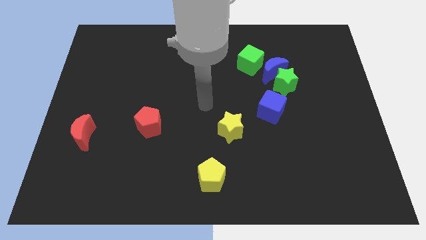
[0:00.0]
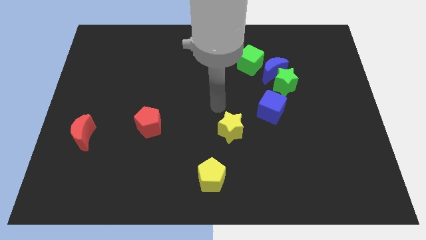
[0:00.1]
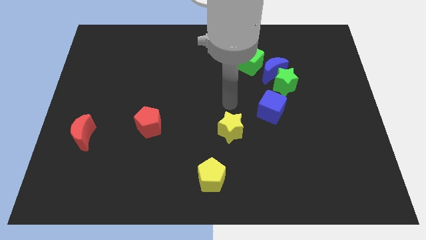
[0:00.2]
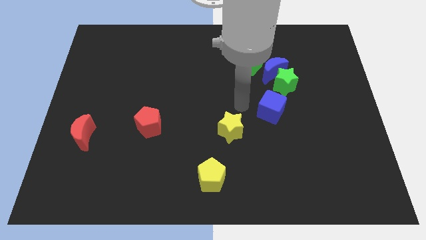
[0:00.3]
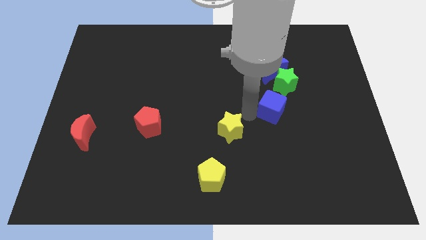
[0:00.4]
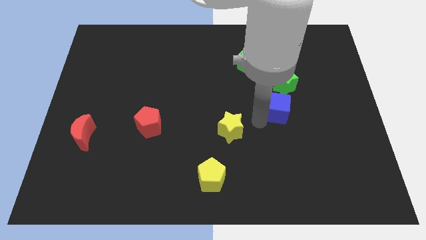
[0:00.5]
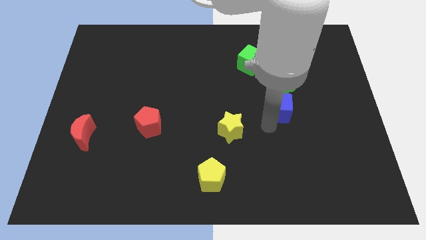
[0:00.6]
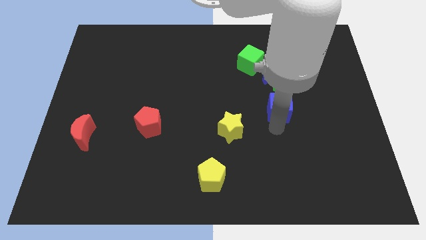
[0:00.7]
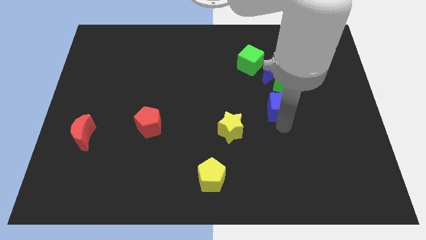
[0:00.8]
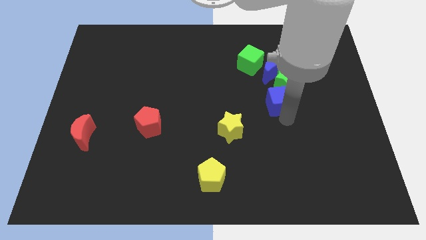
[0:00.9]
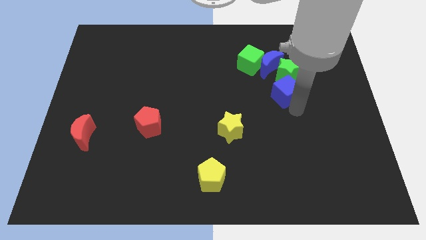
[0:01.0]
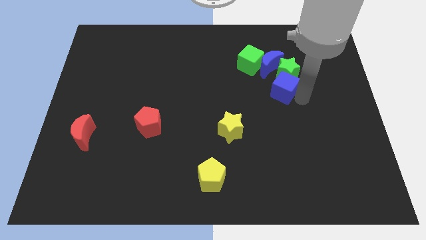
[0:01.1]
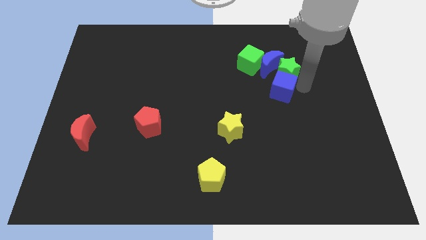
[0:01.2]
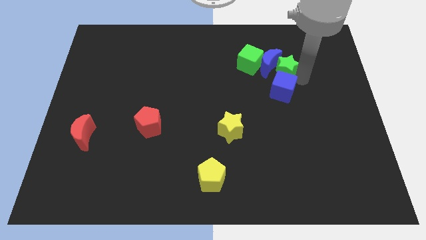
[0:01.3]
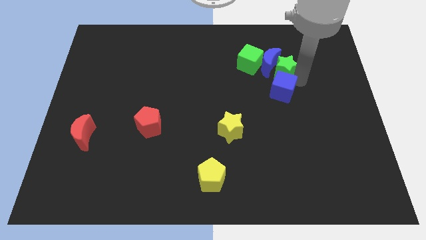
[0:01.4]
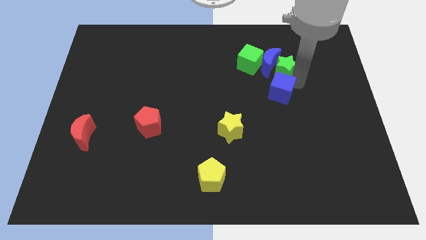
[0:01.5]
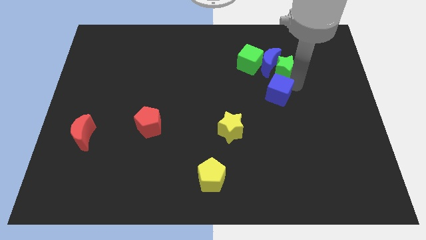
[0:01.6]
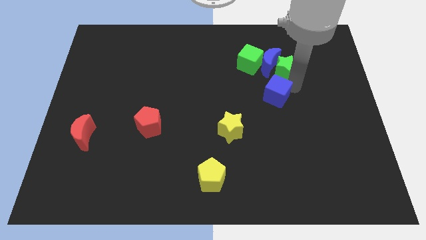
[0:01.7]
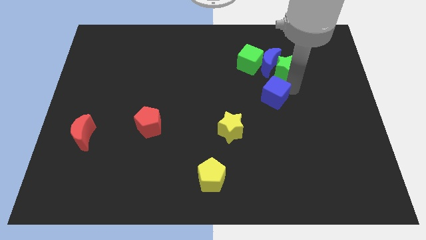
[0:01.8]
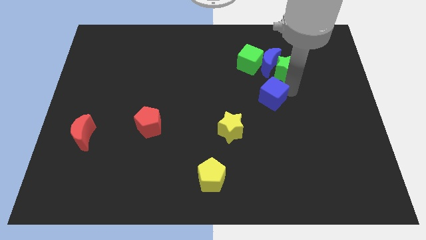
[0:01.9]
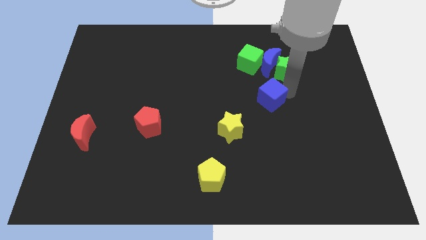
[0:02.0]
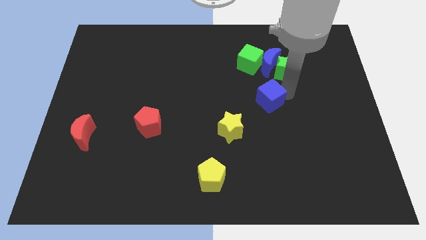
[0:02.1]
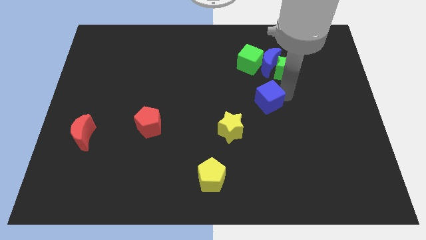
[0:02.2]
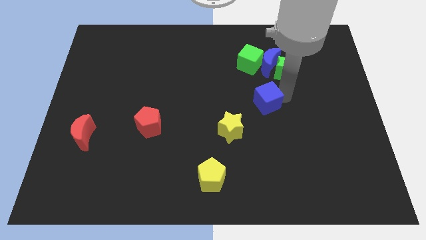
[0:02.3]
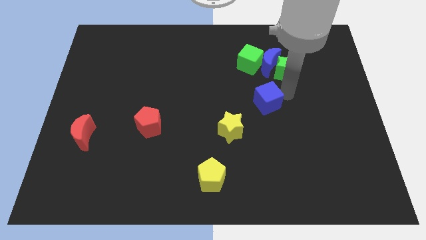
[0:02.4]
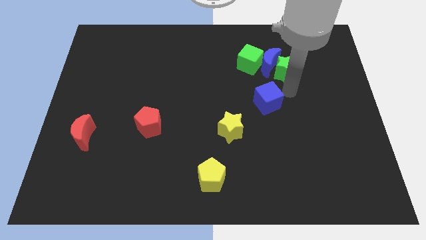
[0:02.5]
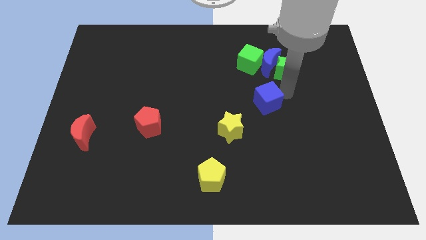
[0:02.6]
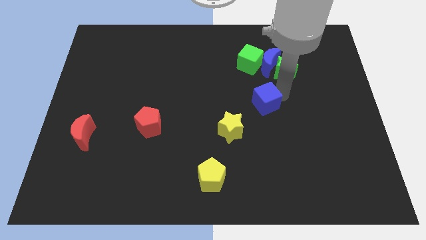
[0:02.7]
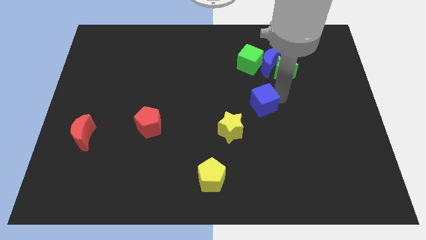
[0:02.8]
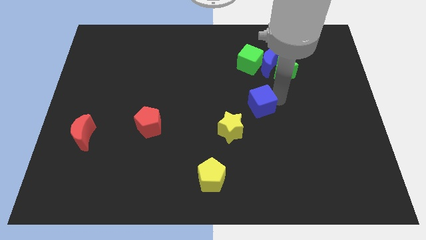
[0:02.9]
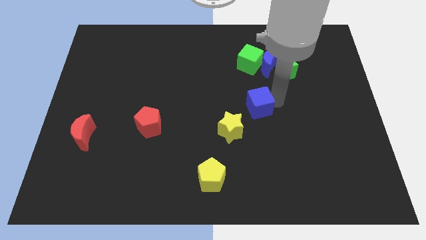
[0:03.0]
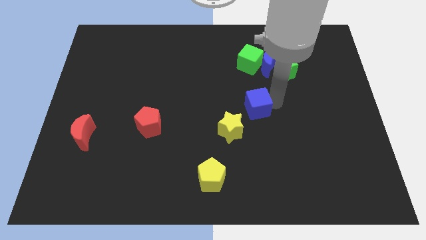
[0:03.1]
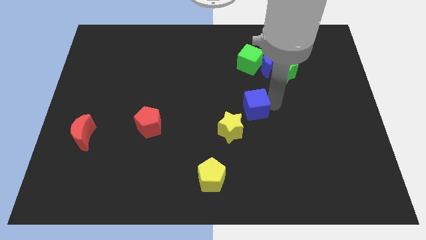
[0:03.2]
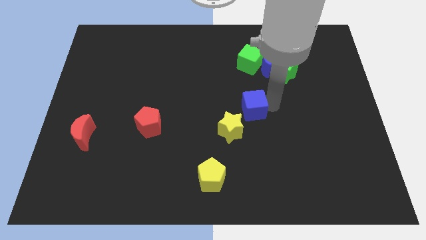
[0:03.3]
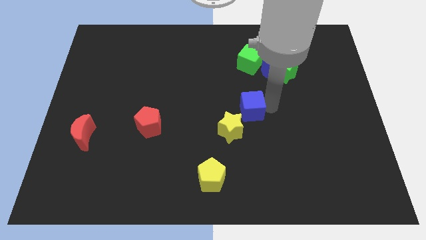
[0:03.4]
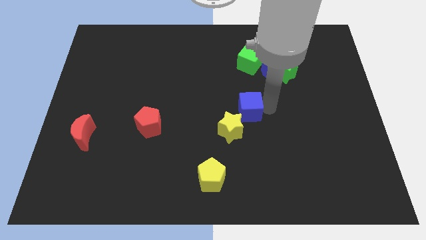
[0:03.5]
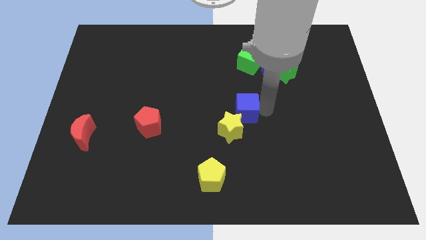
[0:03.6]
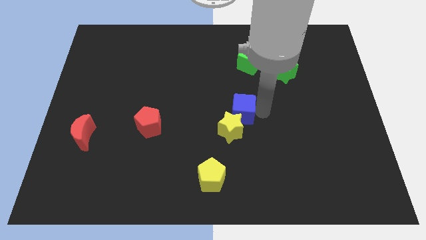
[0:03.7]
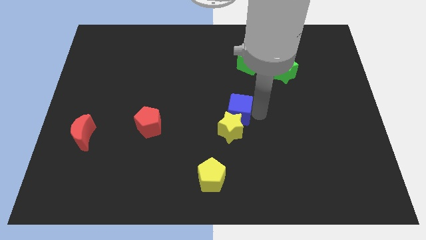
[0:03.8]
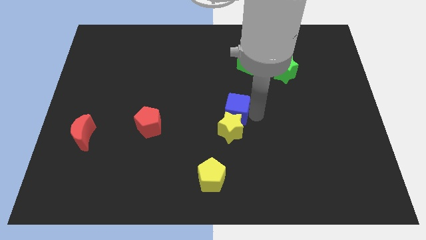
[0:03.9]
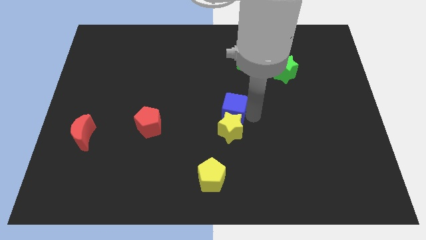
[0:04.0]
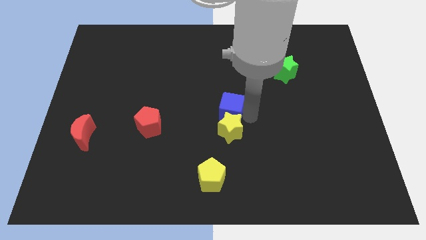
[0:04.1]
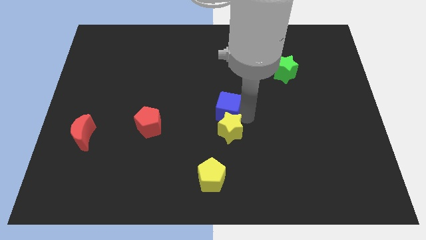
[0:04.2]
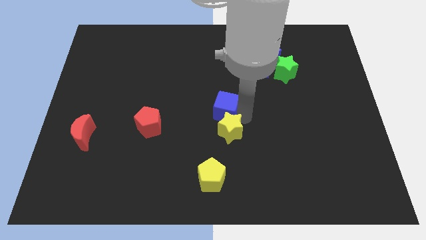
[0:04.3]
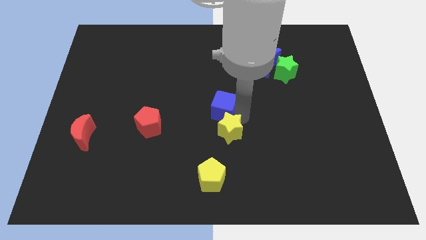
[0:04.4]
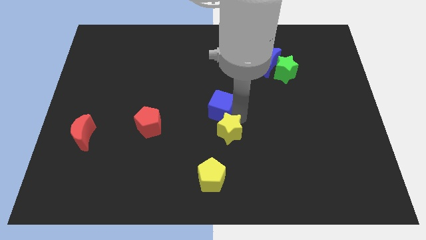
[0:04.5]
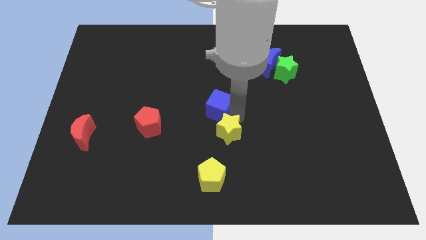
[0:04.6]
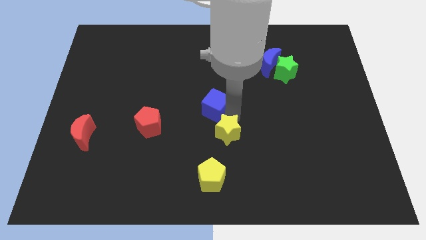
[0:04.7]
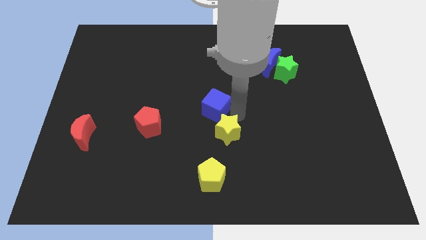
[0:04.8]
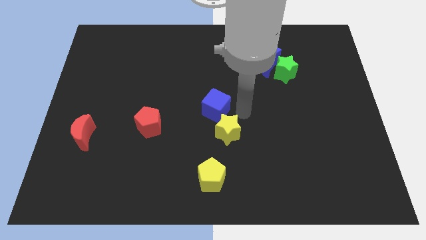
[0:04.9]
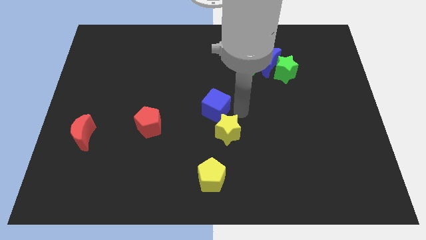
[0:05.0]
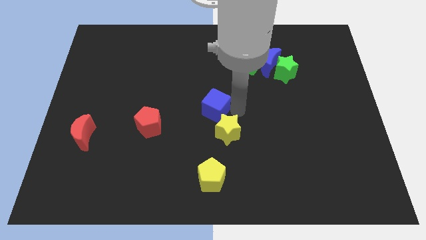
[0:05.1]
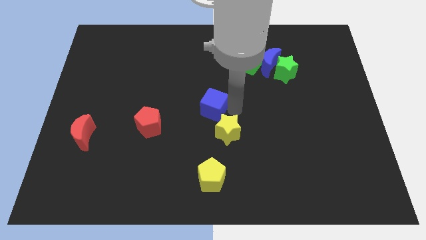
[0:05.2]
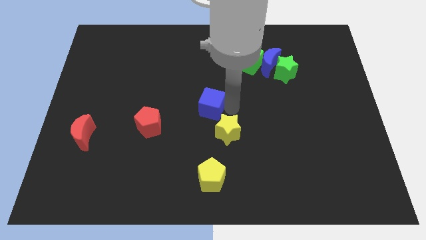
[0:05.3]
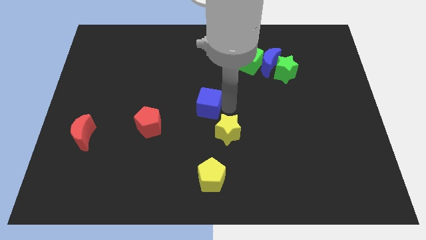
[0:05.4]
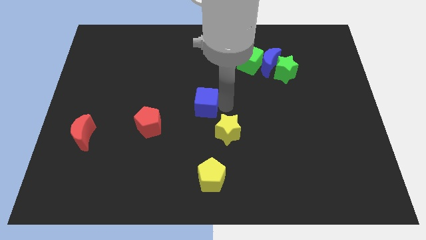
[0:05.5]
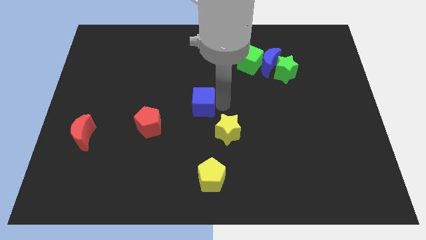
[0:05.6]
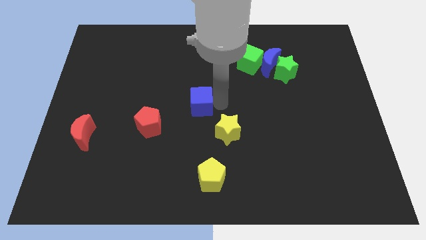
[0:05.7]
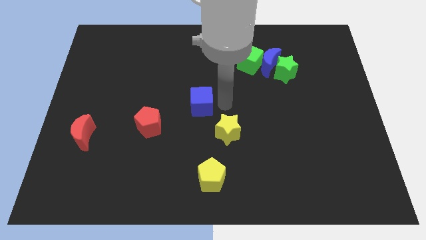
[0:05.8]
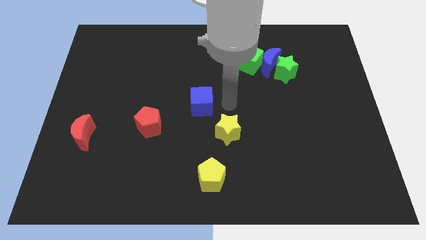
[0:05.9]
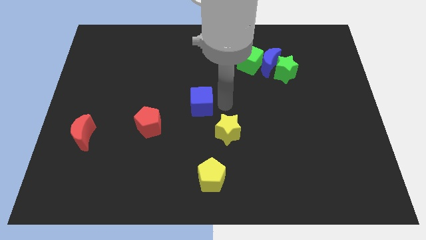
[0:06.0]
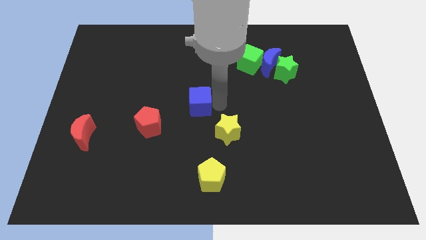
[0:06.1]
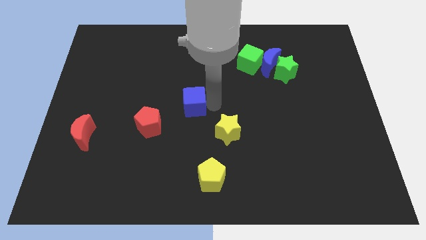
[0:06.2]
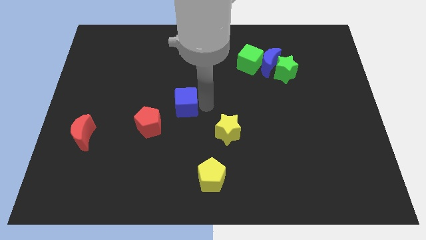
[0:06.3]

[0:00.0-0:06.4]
slide the blue cube to the left

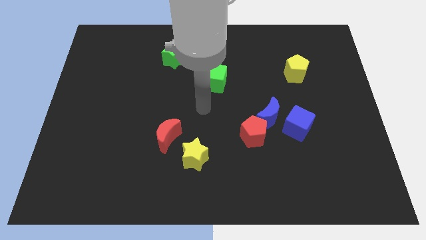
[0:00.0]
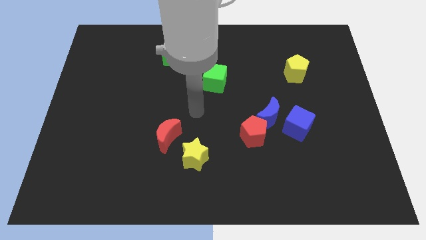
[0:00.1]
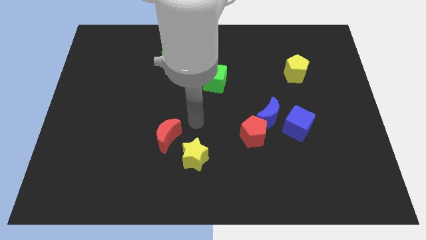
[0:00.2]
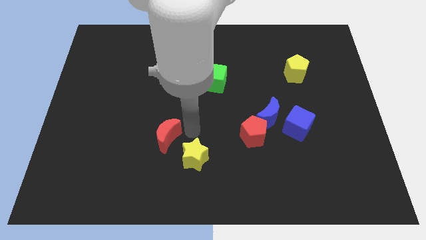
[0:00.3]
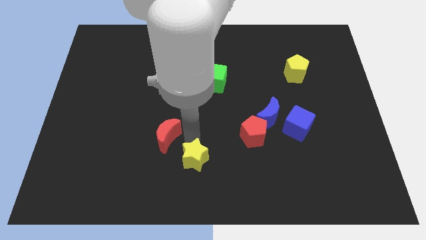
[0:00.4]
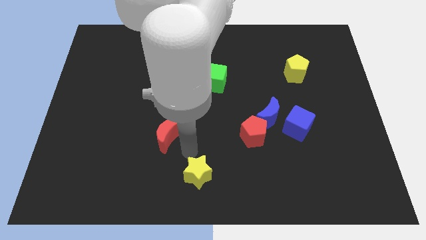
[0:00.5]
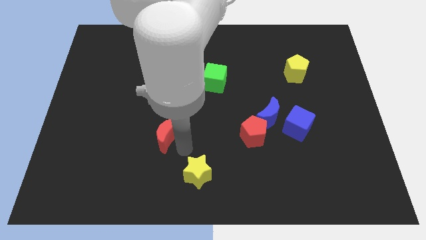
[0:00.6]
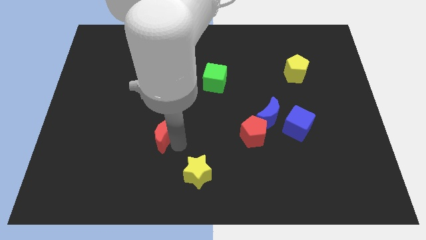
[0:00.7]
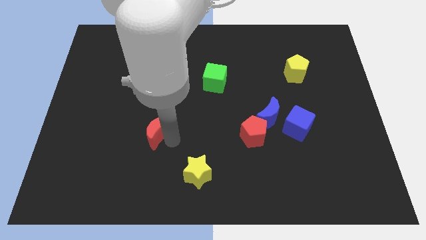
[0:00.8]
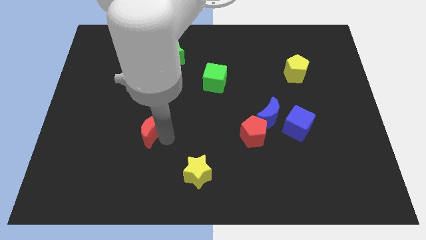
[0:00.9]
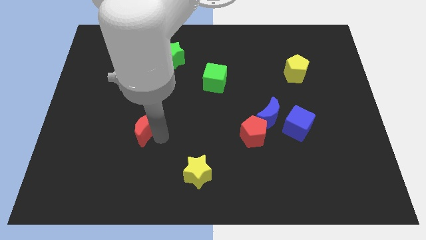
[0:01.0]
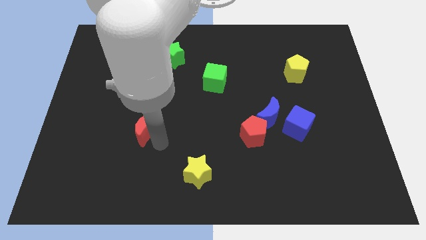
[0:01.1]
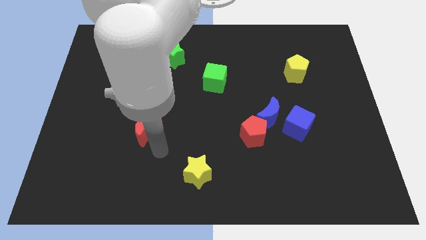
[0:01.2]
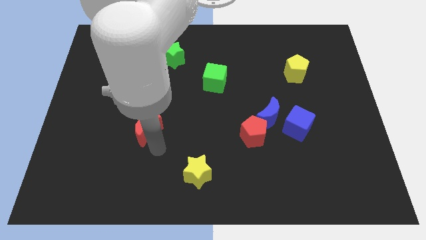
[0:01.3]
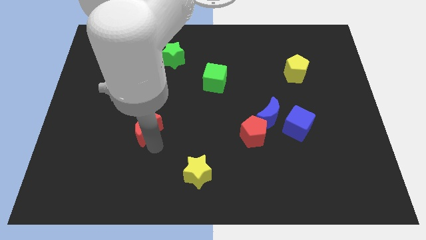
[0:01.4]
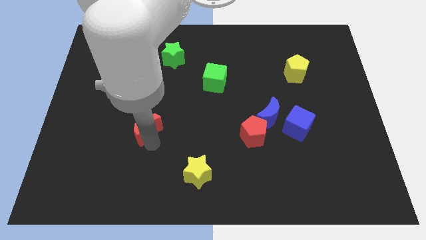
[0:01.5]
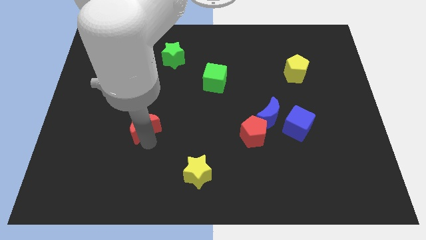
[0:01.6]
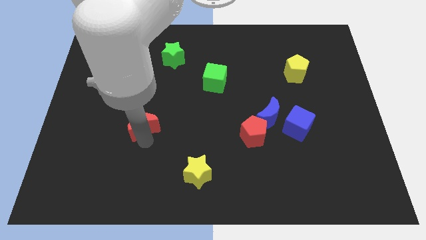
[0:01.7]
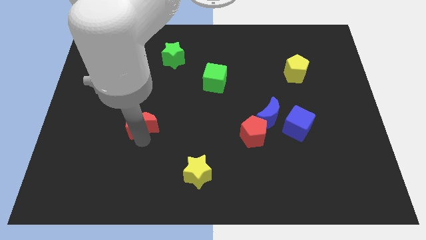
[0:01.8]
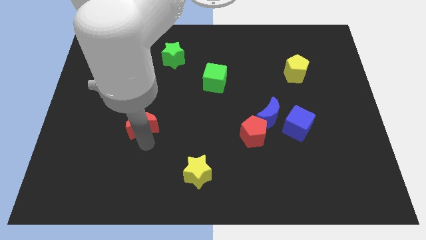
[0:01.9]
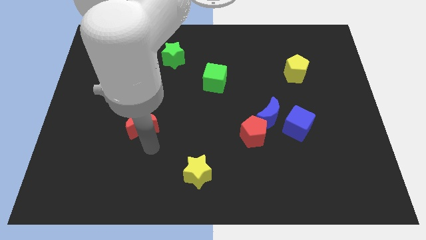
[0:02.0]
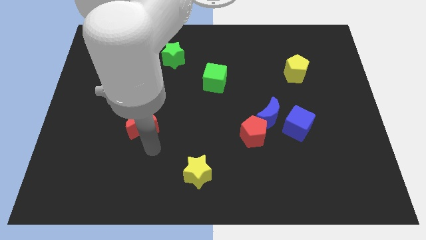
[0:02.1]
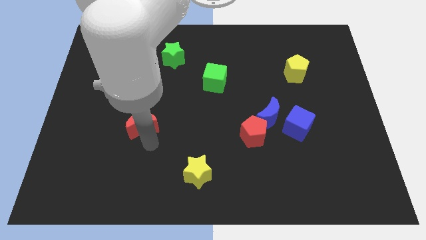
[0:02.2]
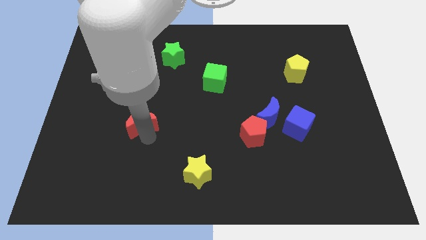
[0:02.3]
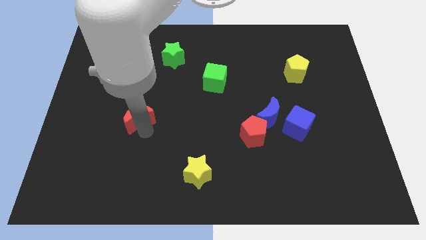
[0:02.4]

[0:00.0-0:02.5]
move the red moon slightly diagonally up and left
